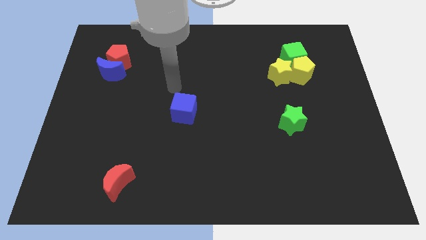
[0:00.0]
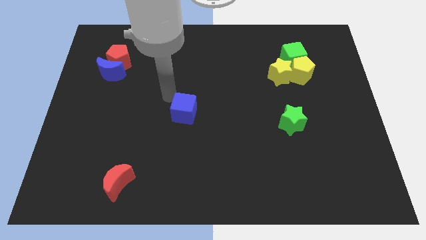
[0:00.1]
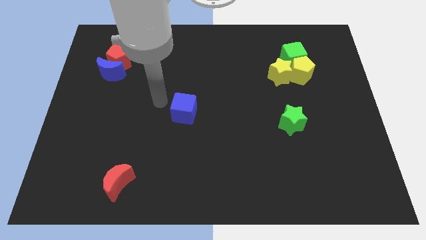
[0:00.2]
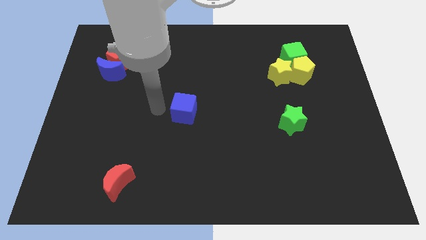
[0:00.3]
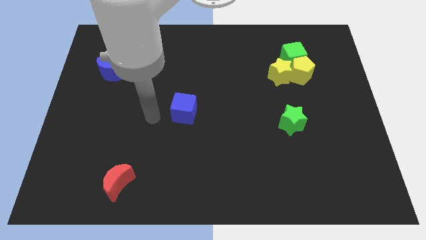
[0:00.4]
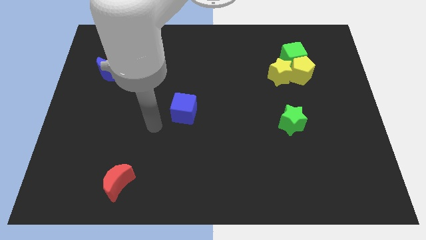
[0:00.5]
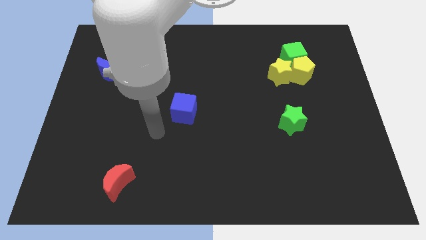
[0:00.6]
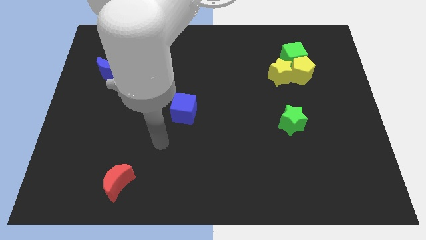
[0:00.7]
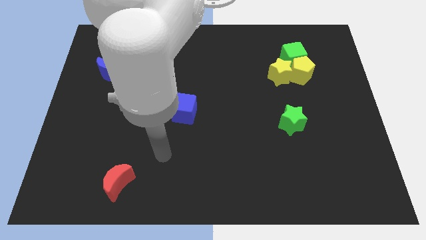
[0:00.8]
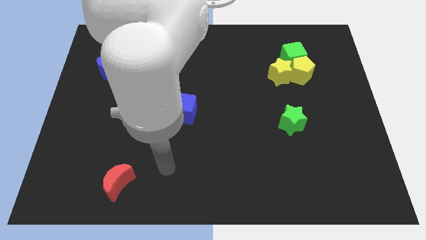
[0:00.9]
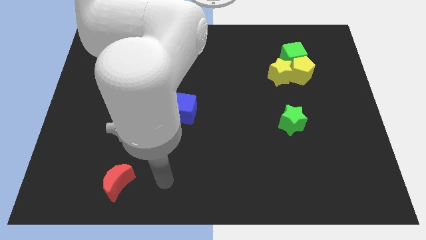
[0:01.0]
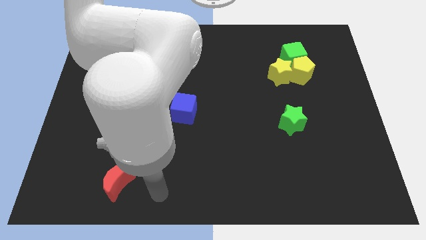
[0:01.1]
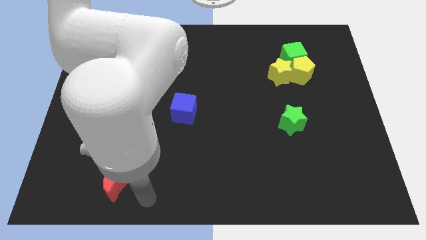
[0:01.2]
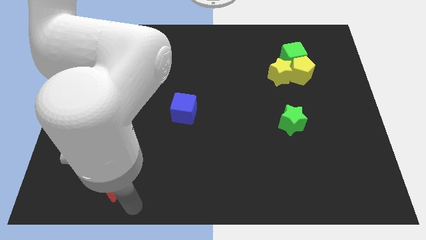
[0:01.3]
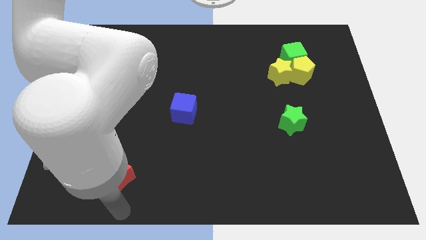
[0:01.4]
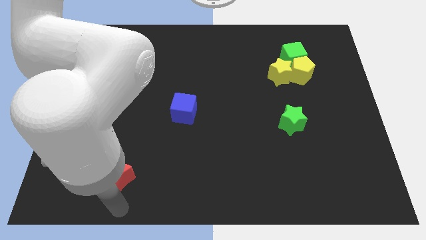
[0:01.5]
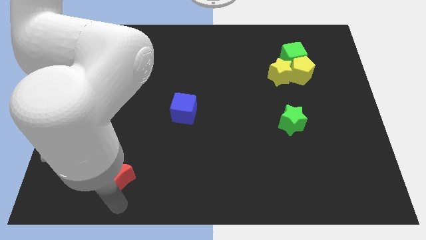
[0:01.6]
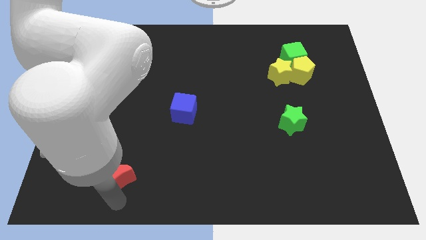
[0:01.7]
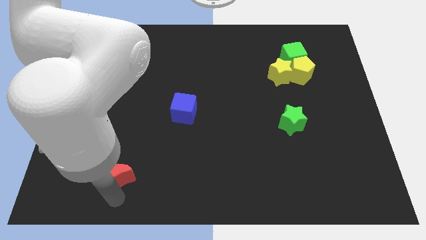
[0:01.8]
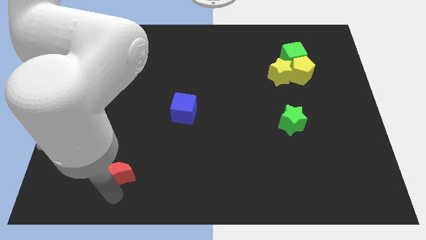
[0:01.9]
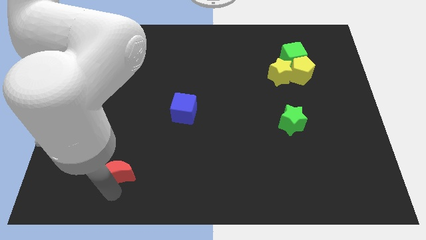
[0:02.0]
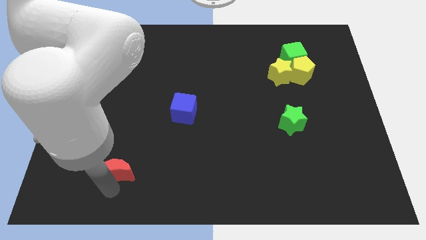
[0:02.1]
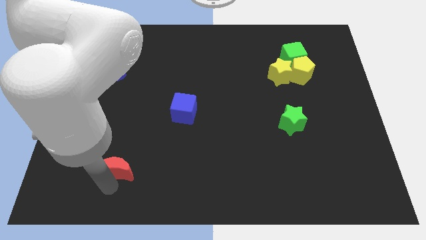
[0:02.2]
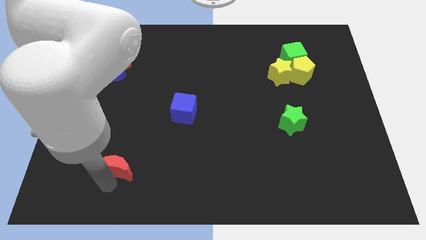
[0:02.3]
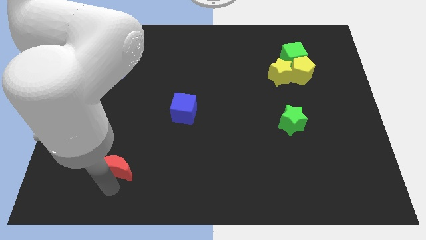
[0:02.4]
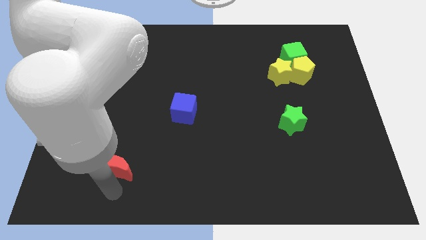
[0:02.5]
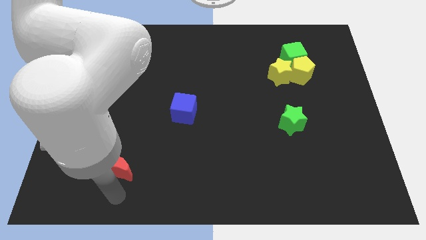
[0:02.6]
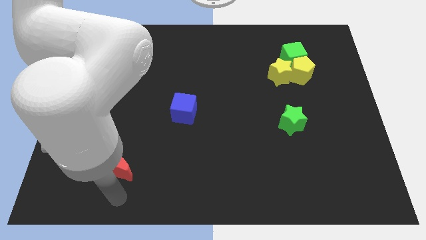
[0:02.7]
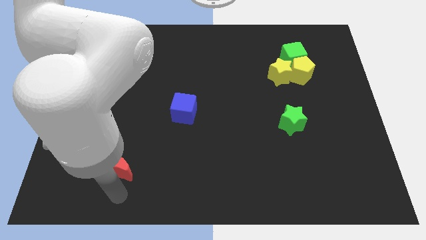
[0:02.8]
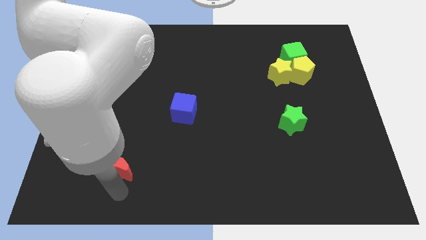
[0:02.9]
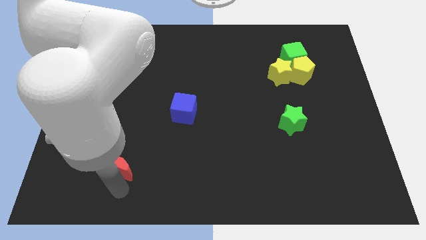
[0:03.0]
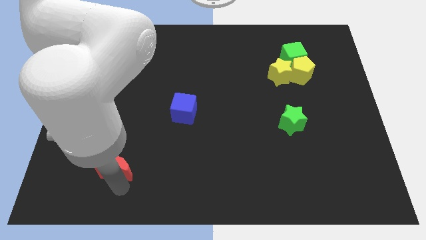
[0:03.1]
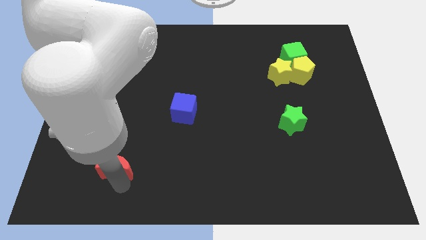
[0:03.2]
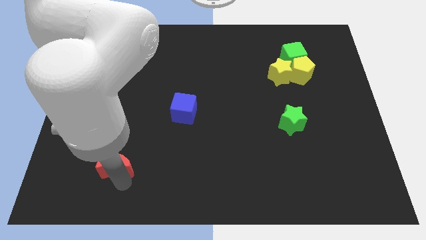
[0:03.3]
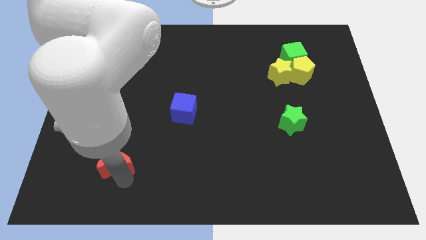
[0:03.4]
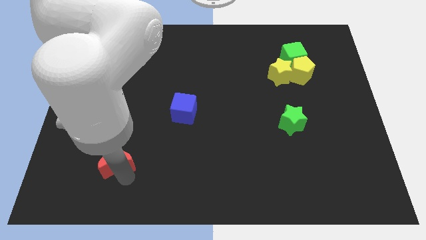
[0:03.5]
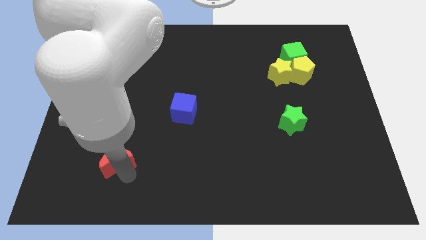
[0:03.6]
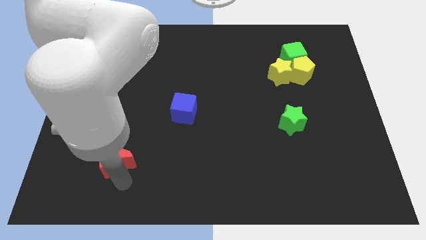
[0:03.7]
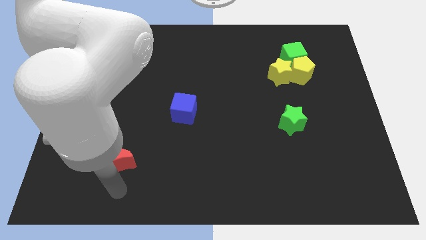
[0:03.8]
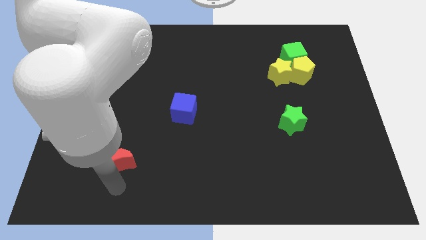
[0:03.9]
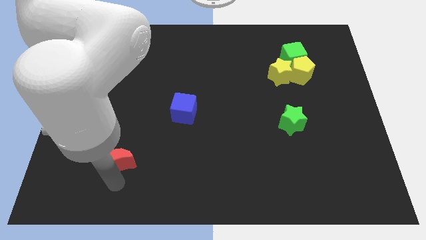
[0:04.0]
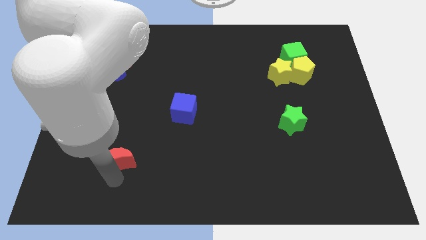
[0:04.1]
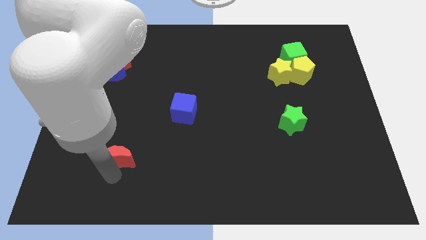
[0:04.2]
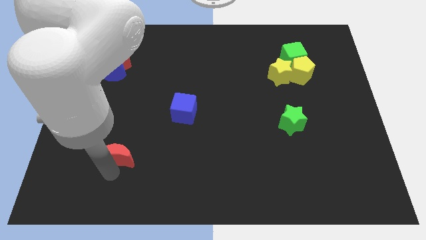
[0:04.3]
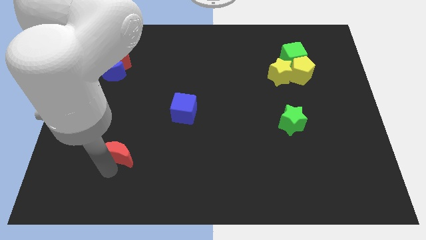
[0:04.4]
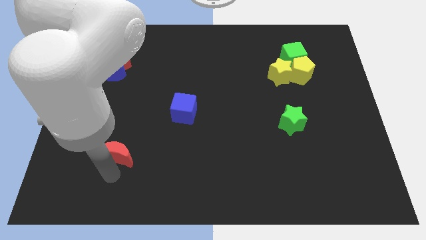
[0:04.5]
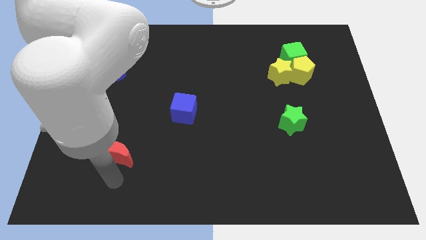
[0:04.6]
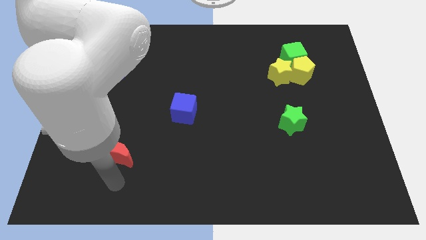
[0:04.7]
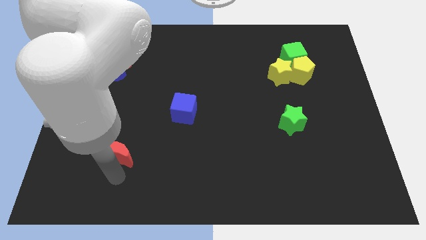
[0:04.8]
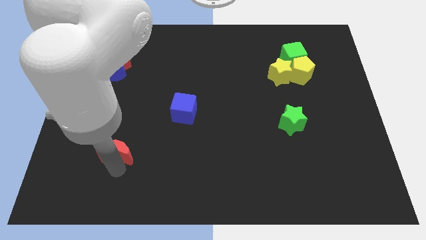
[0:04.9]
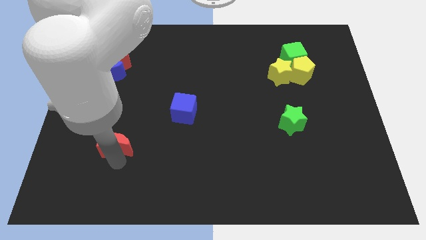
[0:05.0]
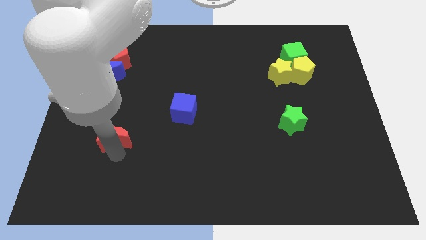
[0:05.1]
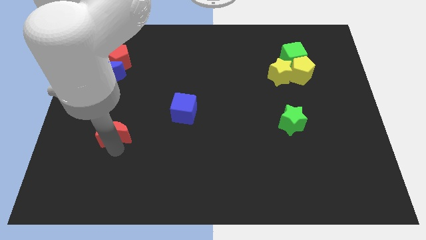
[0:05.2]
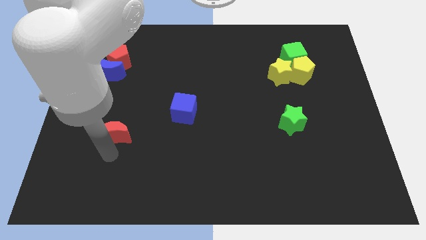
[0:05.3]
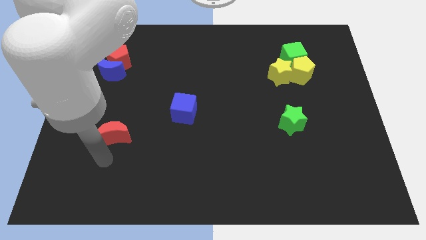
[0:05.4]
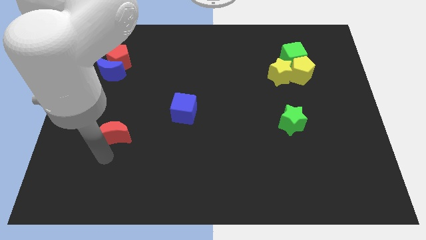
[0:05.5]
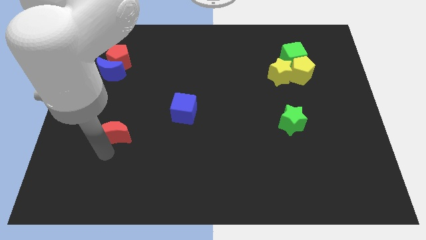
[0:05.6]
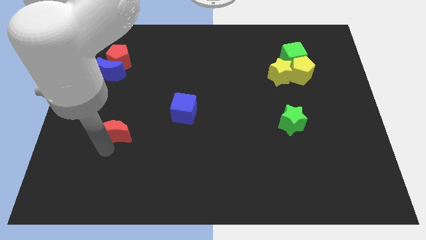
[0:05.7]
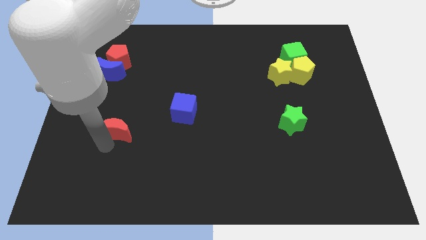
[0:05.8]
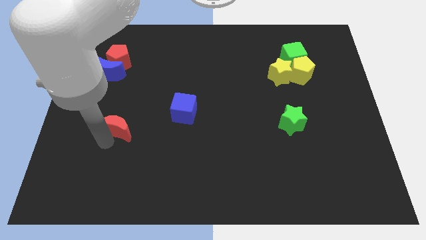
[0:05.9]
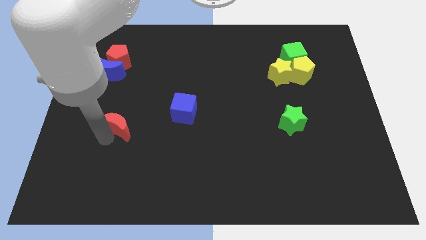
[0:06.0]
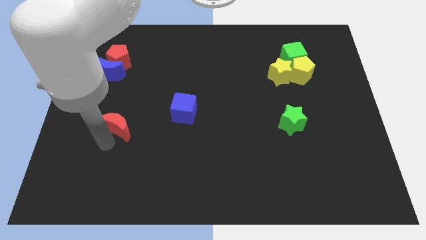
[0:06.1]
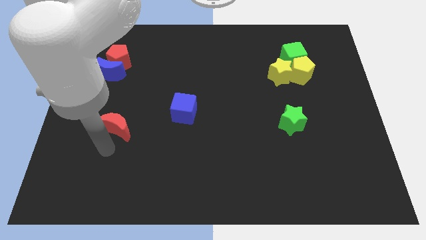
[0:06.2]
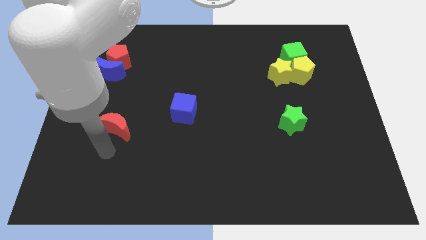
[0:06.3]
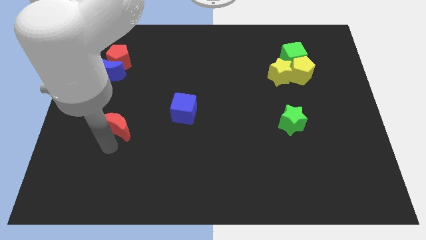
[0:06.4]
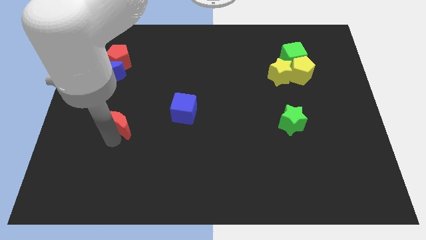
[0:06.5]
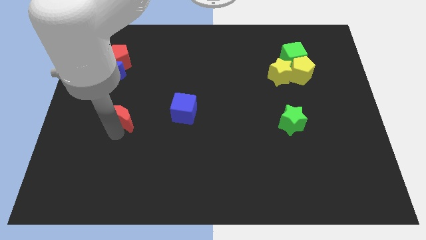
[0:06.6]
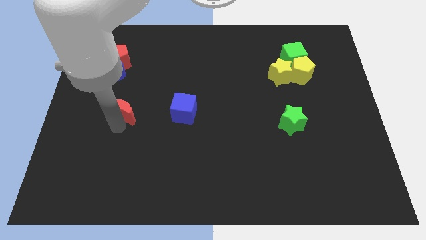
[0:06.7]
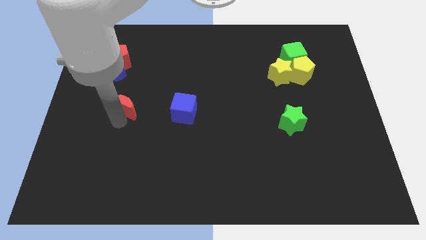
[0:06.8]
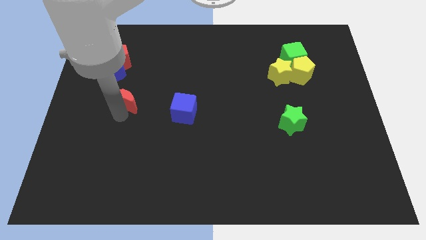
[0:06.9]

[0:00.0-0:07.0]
slide the red moon upwards

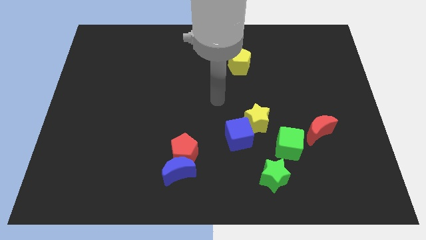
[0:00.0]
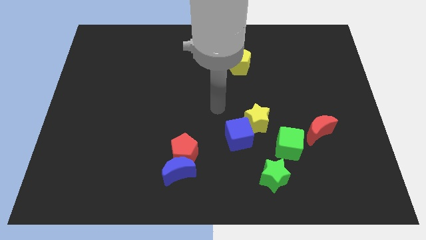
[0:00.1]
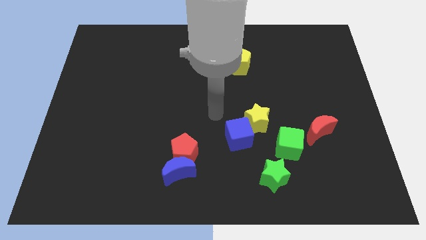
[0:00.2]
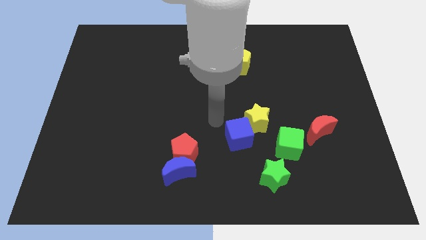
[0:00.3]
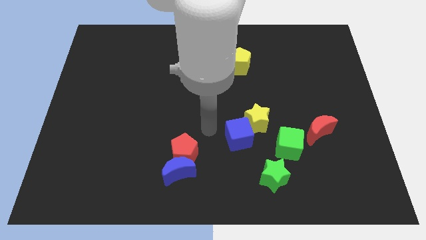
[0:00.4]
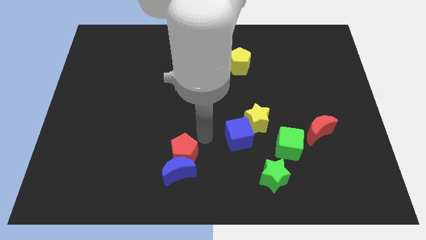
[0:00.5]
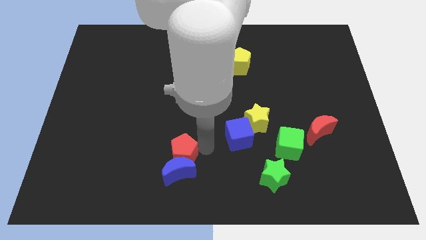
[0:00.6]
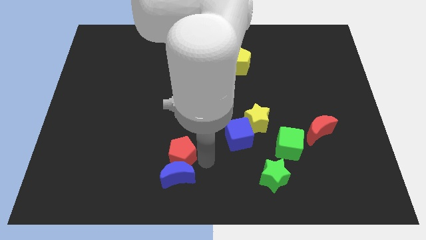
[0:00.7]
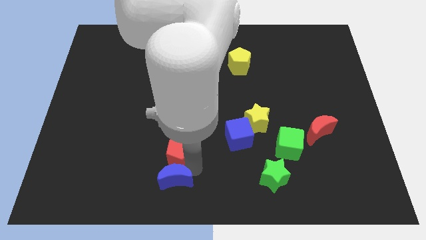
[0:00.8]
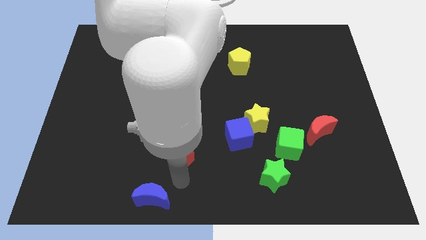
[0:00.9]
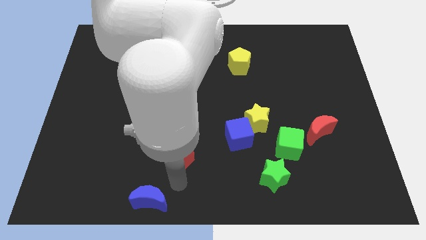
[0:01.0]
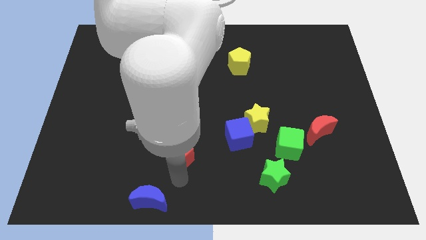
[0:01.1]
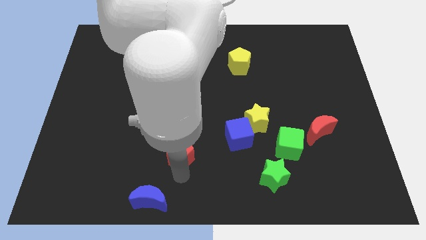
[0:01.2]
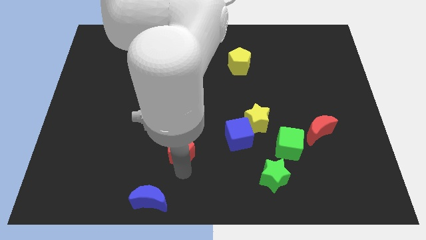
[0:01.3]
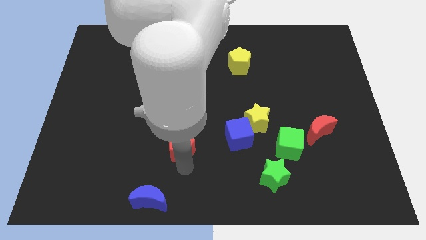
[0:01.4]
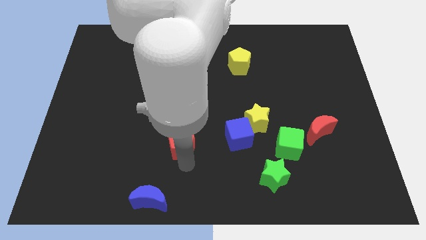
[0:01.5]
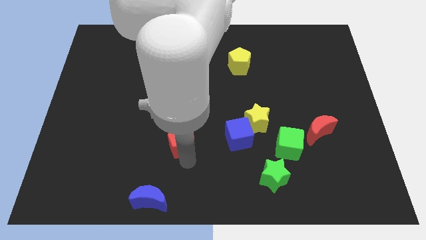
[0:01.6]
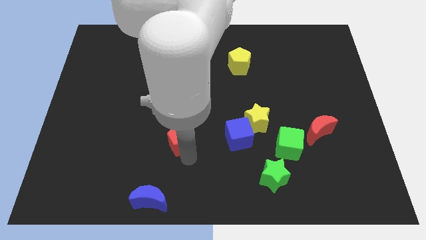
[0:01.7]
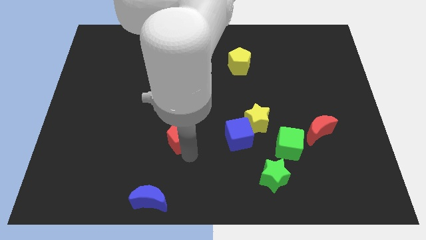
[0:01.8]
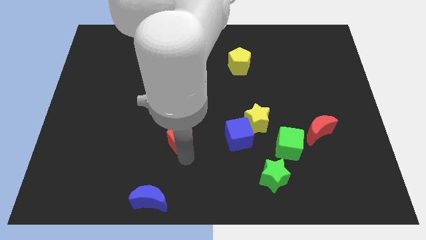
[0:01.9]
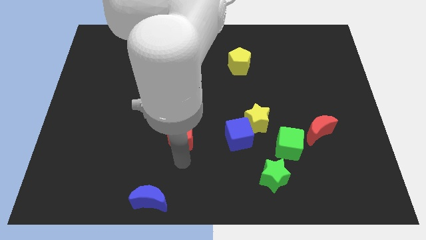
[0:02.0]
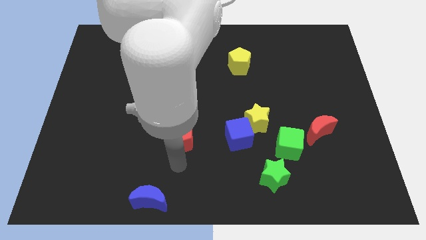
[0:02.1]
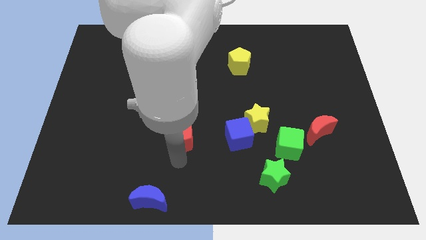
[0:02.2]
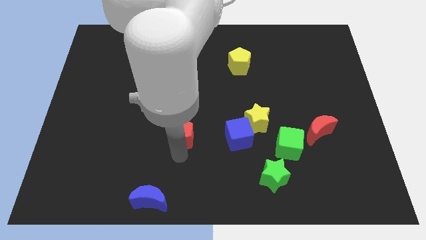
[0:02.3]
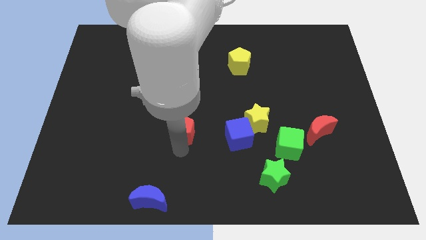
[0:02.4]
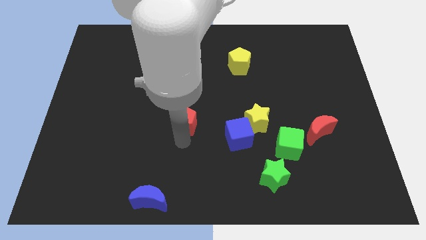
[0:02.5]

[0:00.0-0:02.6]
move the red pentagon a little upwards
